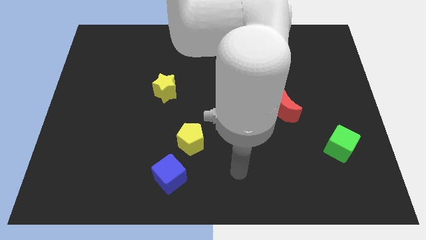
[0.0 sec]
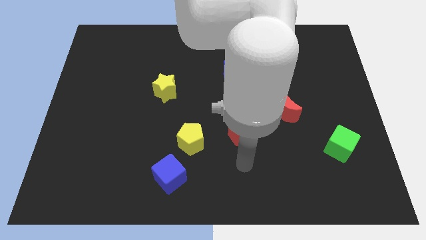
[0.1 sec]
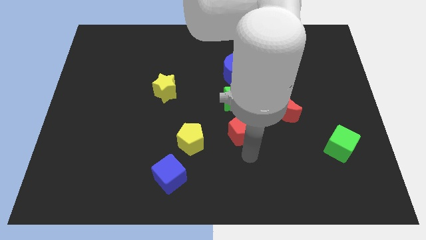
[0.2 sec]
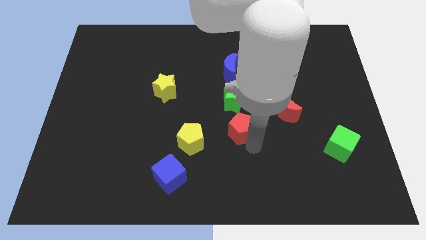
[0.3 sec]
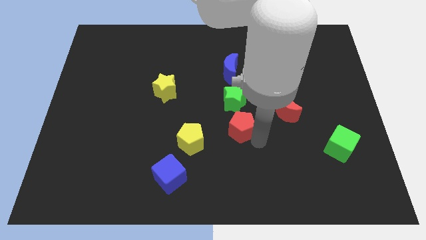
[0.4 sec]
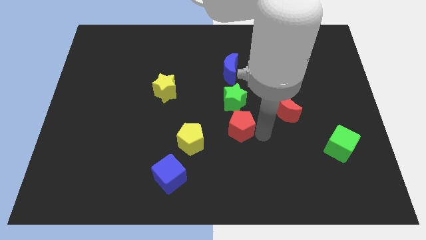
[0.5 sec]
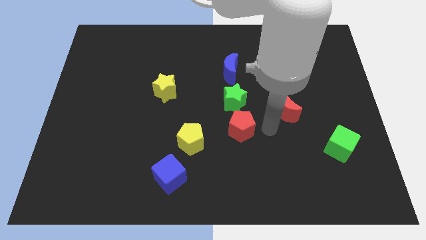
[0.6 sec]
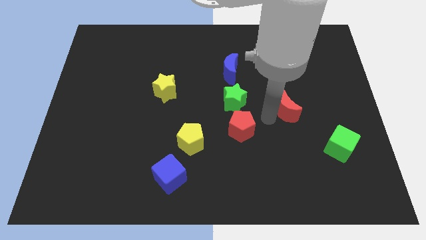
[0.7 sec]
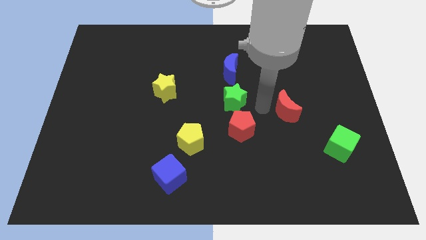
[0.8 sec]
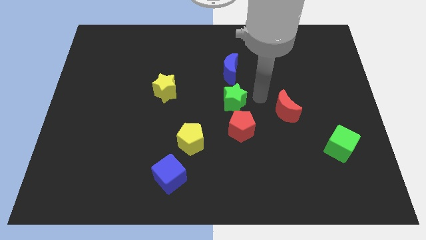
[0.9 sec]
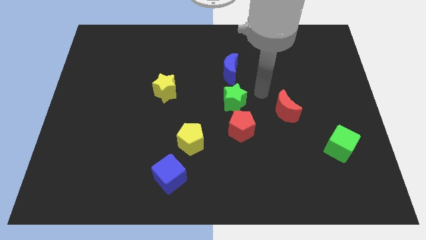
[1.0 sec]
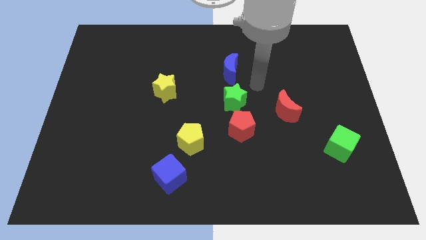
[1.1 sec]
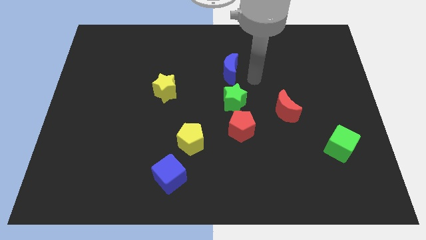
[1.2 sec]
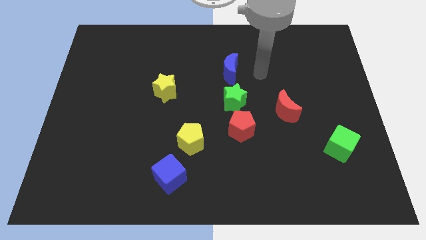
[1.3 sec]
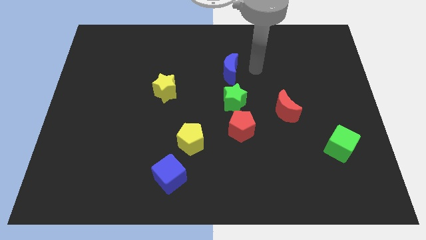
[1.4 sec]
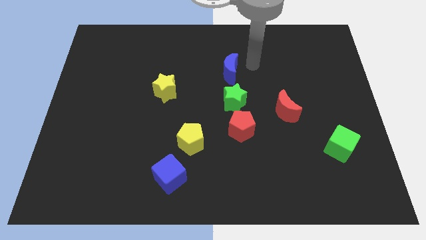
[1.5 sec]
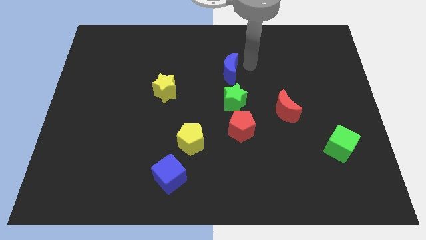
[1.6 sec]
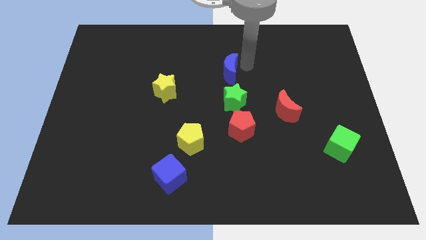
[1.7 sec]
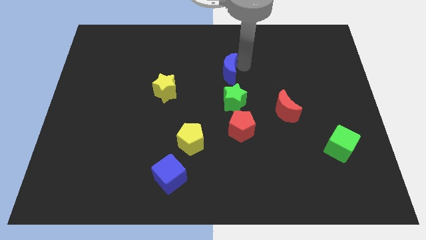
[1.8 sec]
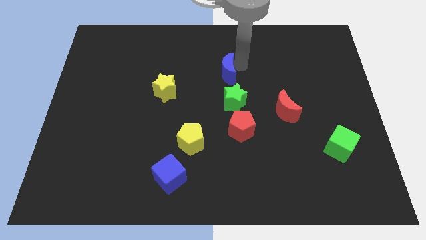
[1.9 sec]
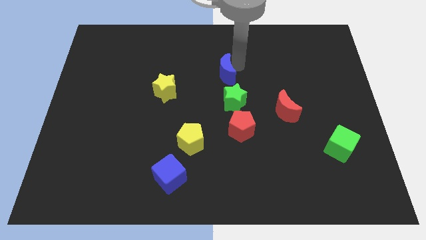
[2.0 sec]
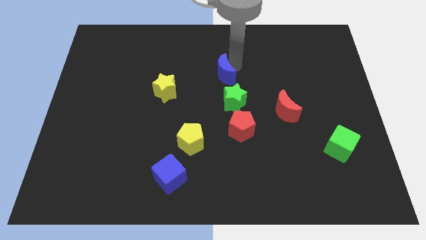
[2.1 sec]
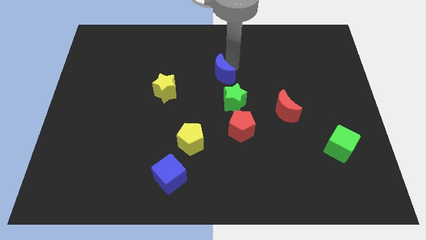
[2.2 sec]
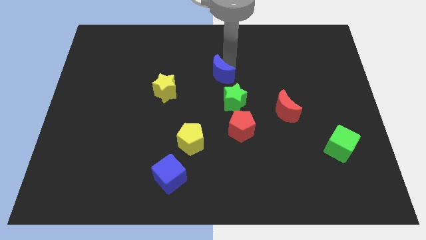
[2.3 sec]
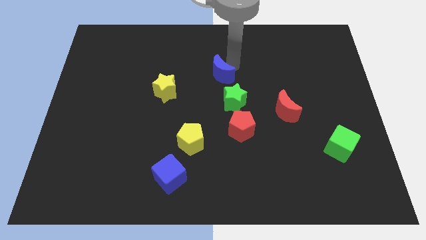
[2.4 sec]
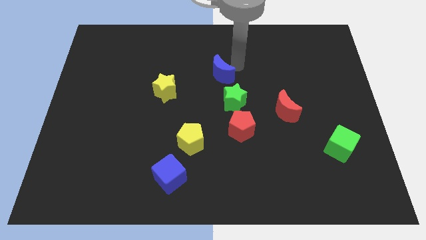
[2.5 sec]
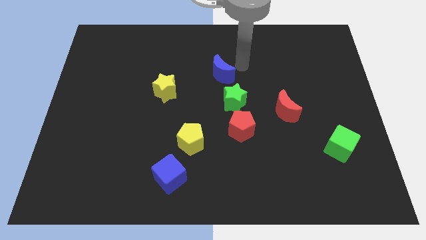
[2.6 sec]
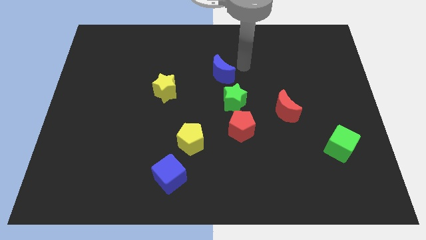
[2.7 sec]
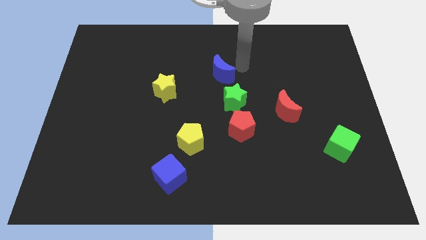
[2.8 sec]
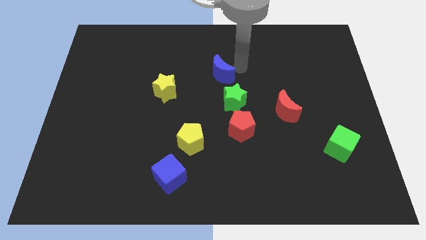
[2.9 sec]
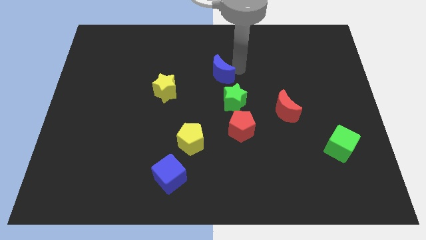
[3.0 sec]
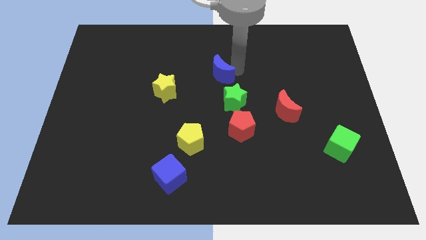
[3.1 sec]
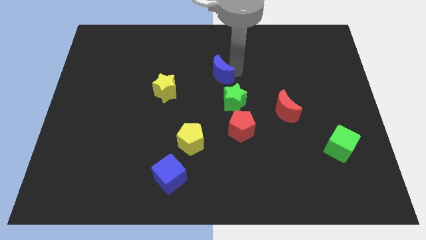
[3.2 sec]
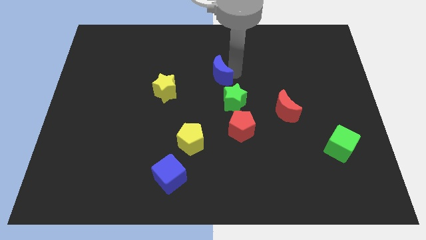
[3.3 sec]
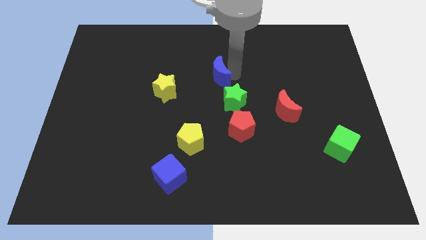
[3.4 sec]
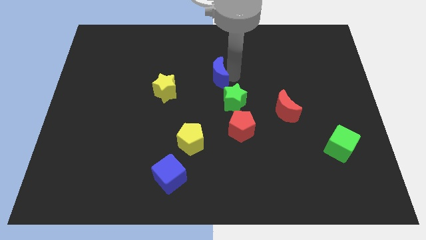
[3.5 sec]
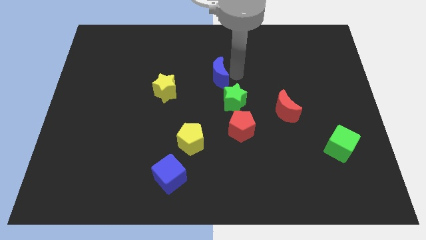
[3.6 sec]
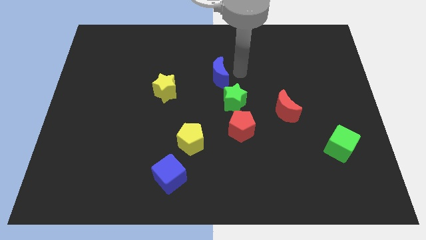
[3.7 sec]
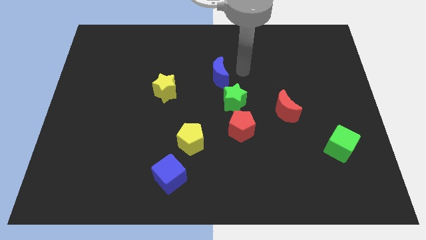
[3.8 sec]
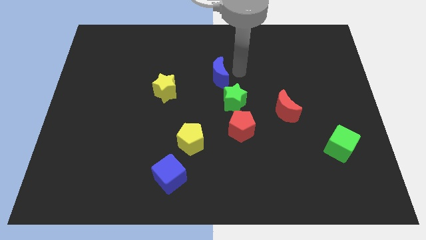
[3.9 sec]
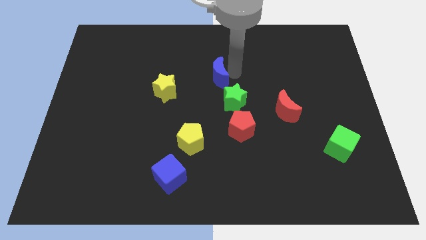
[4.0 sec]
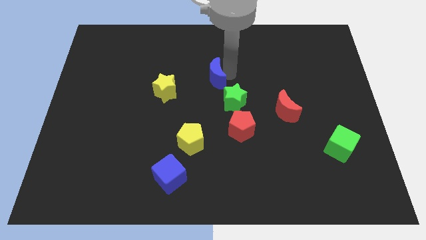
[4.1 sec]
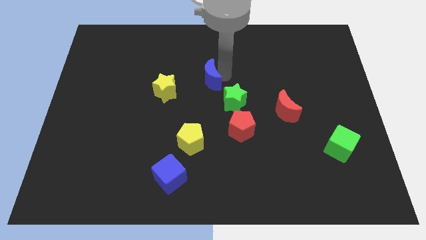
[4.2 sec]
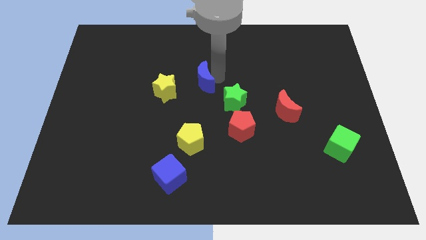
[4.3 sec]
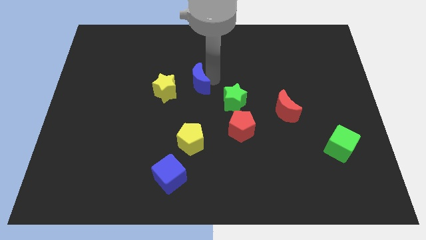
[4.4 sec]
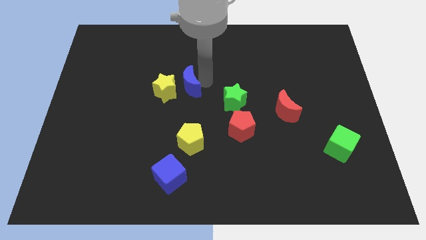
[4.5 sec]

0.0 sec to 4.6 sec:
move the blue moon close to the yellow star

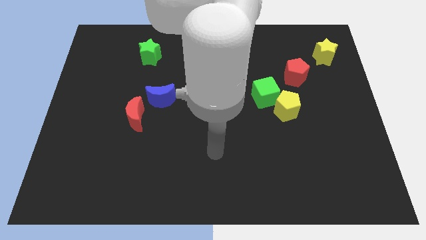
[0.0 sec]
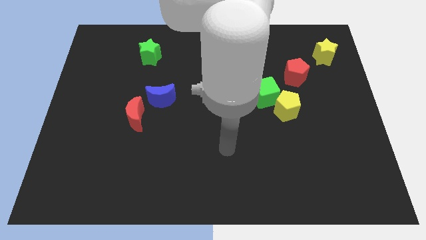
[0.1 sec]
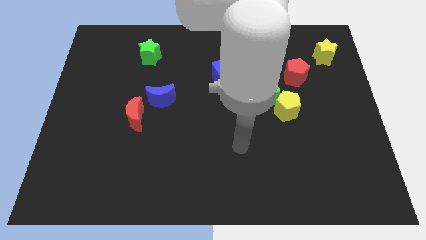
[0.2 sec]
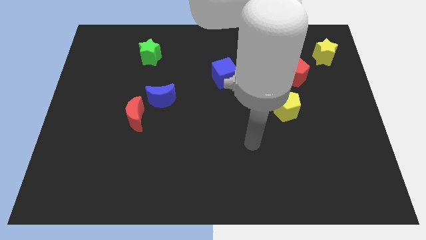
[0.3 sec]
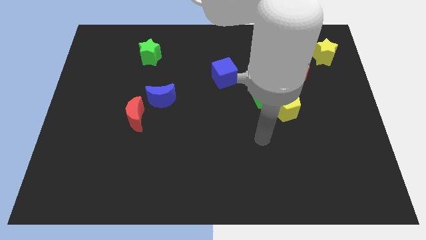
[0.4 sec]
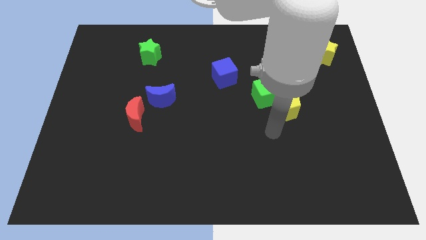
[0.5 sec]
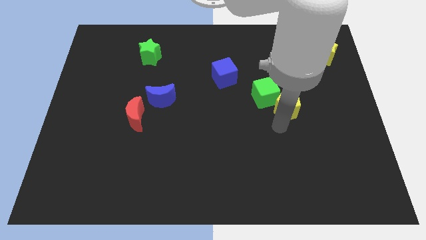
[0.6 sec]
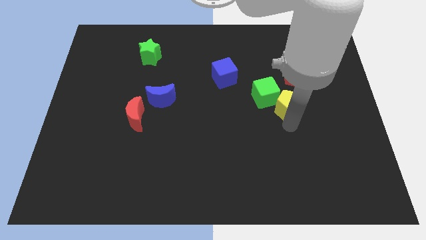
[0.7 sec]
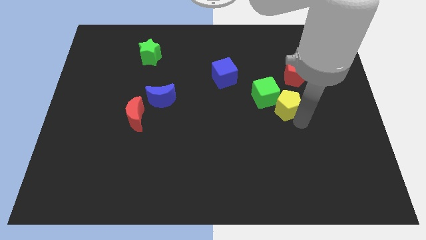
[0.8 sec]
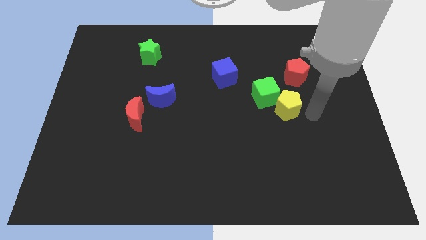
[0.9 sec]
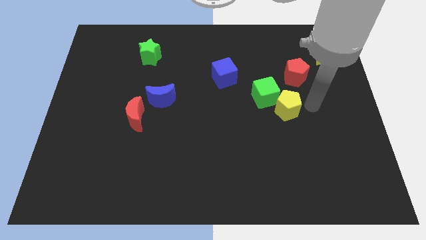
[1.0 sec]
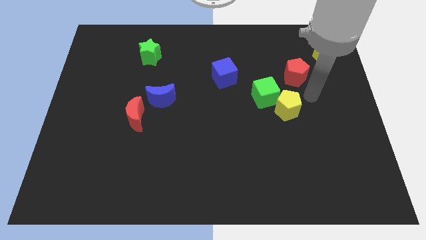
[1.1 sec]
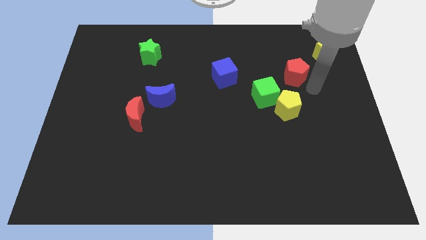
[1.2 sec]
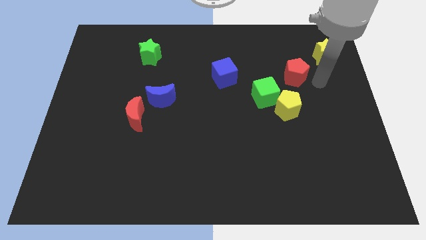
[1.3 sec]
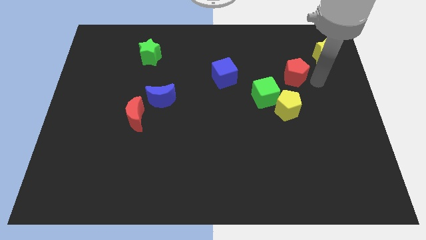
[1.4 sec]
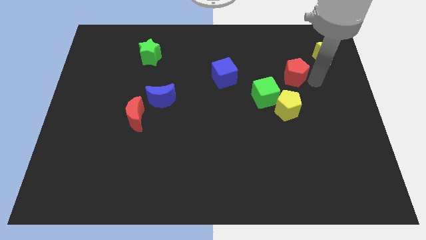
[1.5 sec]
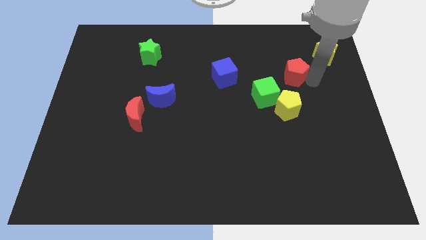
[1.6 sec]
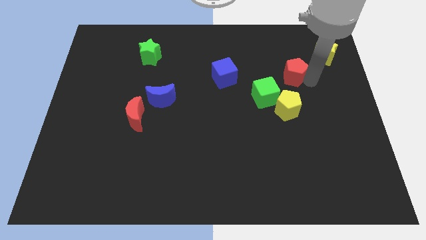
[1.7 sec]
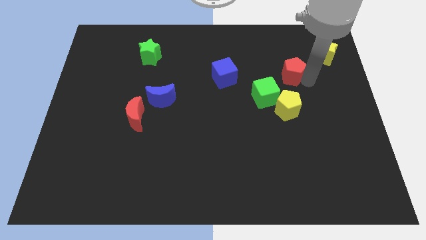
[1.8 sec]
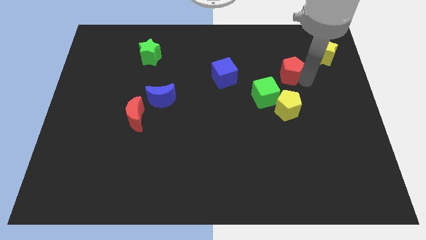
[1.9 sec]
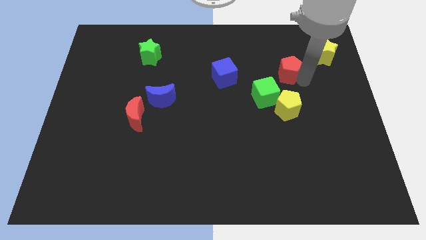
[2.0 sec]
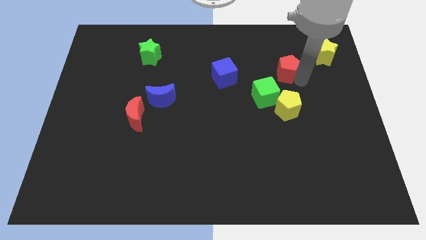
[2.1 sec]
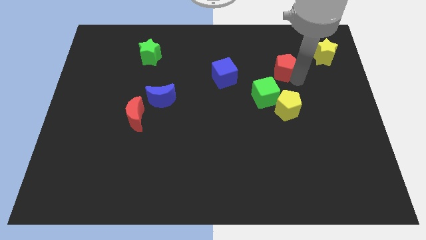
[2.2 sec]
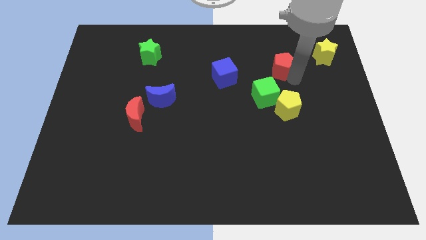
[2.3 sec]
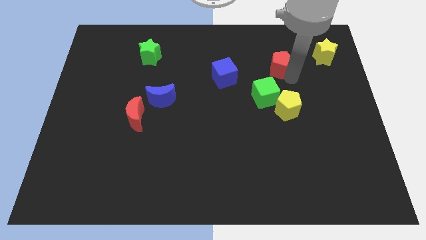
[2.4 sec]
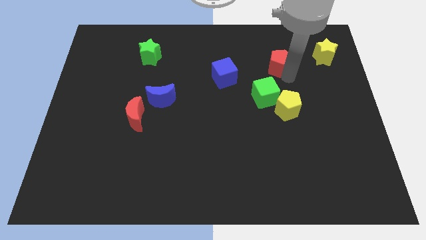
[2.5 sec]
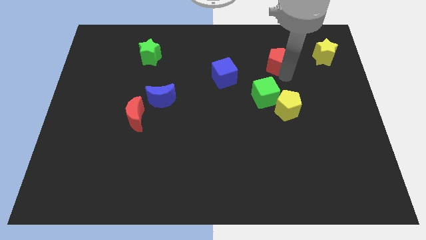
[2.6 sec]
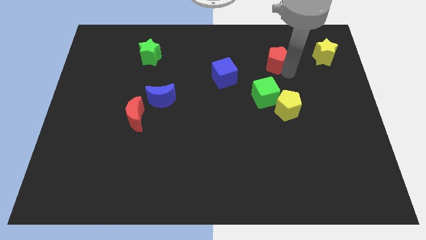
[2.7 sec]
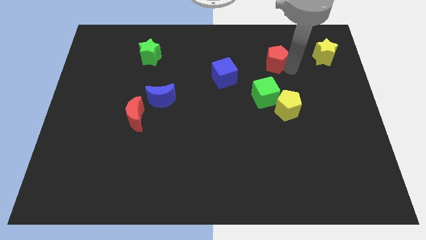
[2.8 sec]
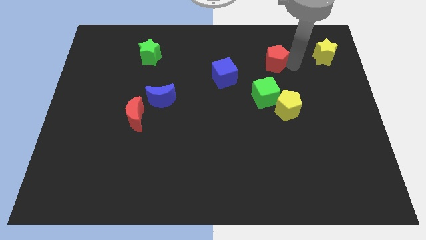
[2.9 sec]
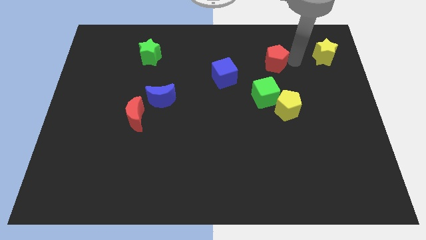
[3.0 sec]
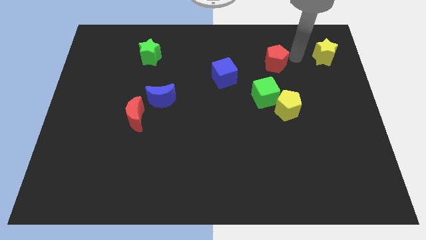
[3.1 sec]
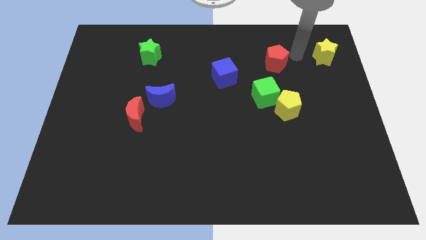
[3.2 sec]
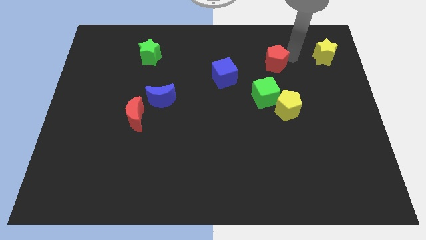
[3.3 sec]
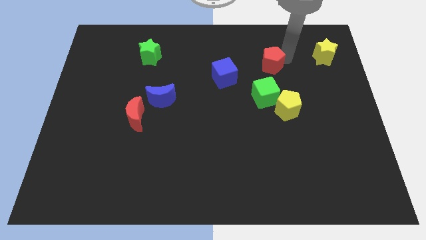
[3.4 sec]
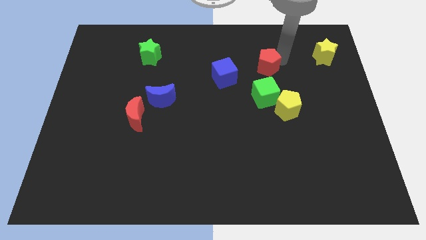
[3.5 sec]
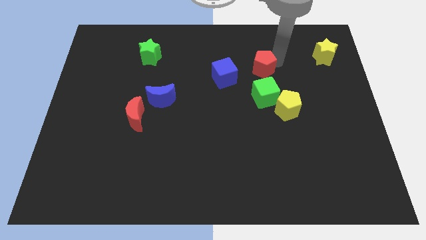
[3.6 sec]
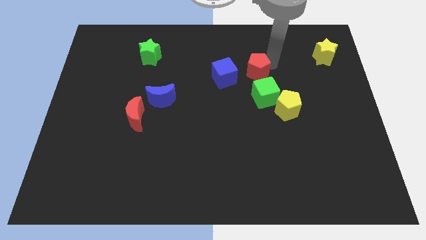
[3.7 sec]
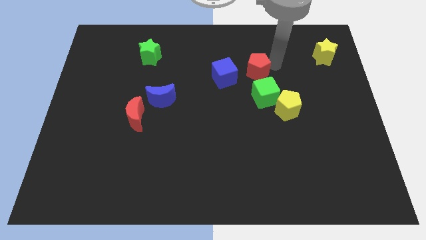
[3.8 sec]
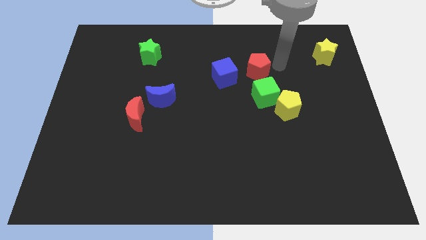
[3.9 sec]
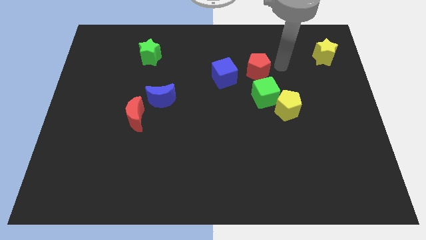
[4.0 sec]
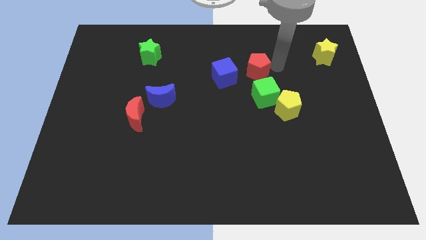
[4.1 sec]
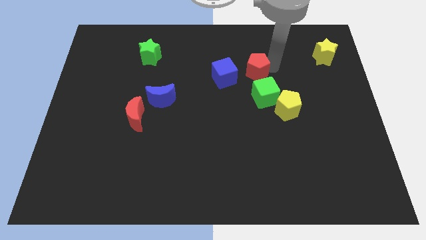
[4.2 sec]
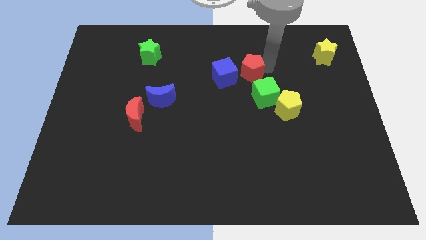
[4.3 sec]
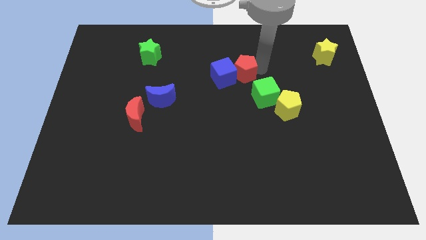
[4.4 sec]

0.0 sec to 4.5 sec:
push the red pentagon close to the blue cube
